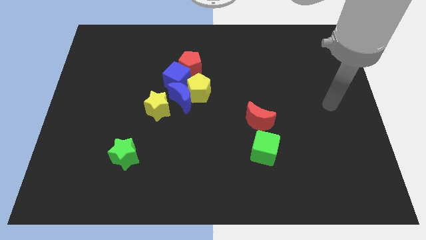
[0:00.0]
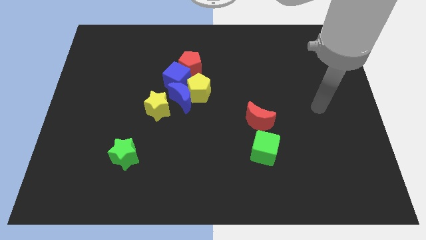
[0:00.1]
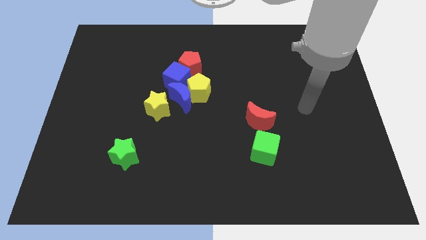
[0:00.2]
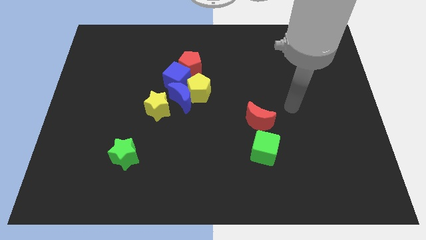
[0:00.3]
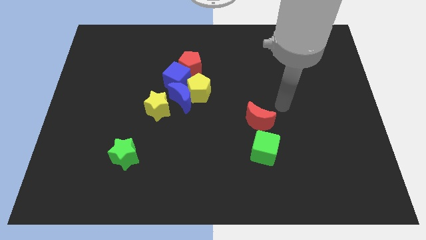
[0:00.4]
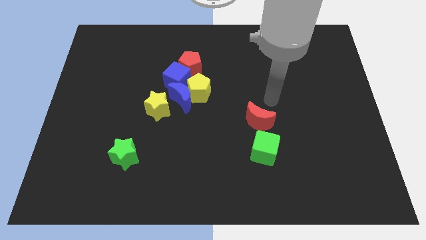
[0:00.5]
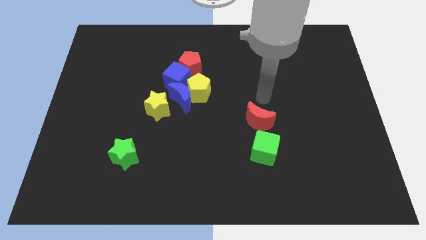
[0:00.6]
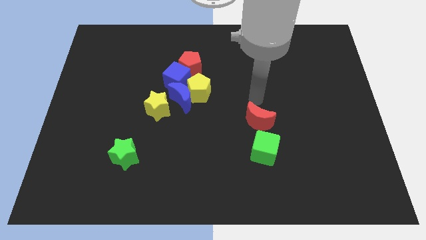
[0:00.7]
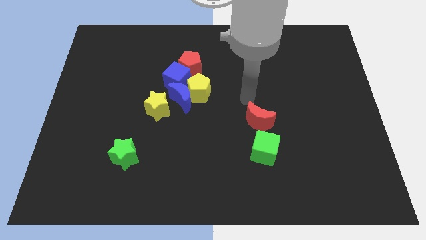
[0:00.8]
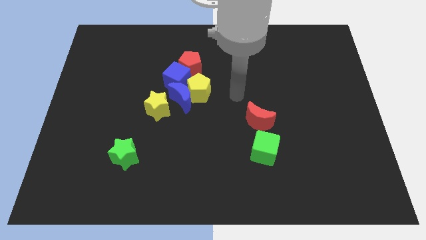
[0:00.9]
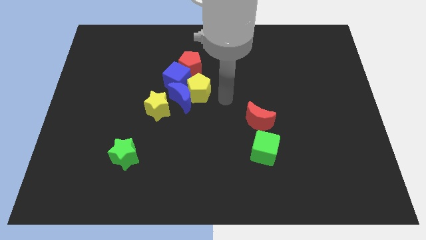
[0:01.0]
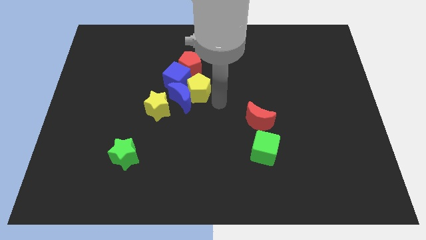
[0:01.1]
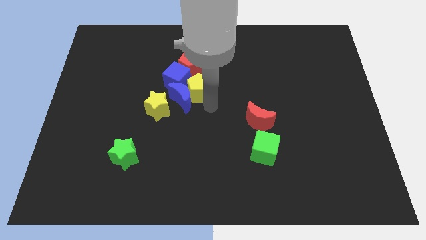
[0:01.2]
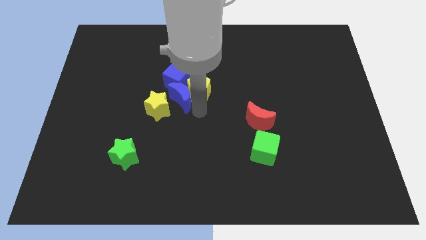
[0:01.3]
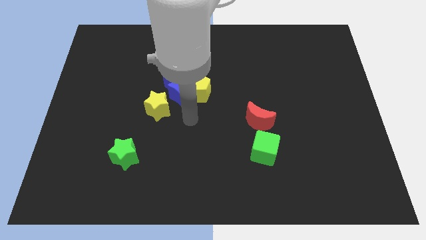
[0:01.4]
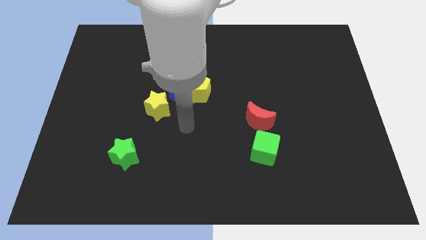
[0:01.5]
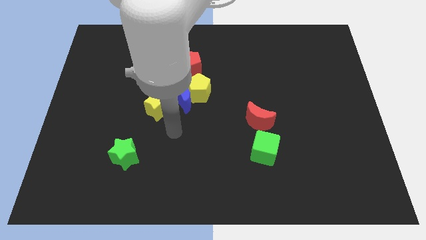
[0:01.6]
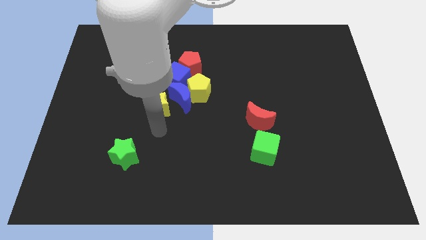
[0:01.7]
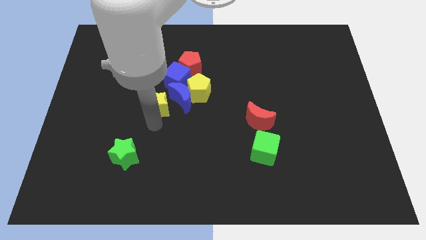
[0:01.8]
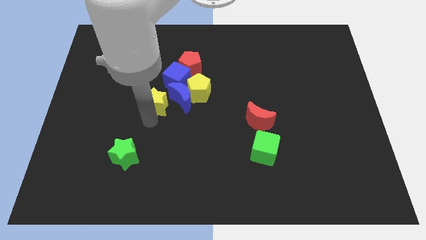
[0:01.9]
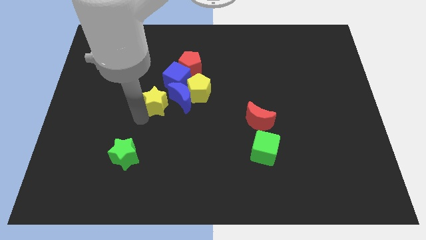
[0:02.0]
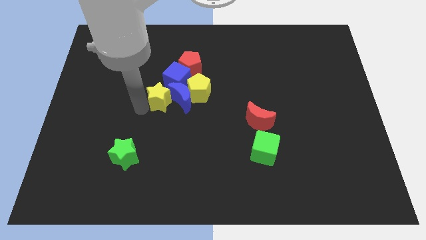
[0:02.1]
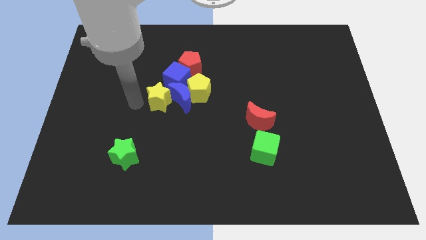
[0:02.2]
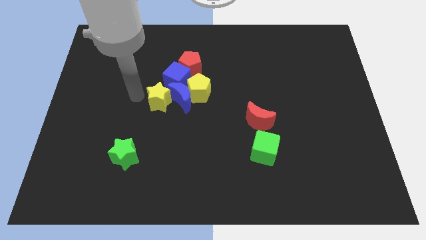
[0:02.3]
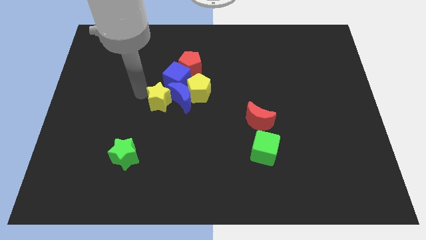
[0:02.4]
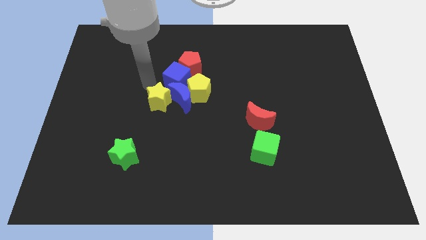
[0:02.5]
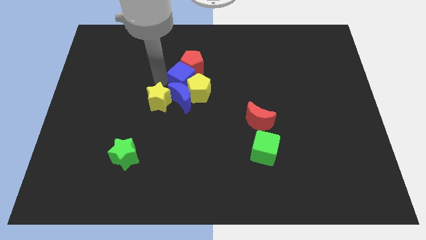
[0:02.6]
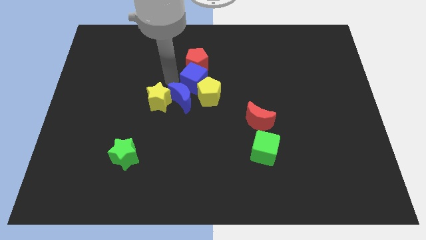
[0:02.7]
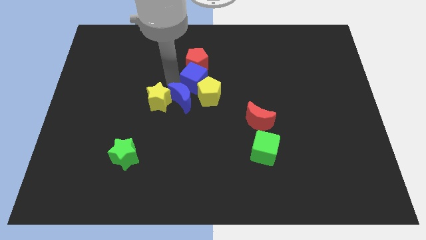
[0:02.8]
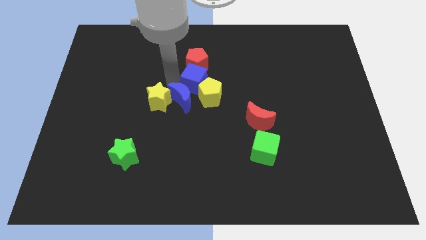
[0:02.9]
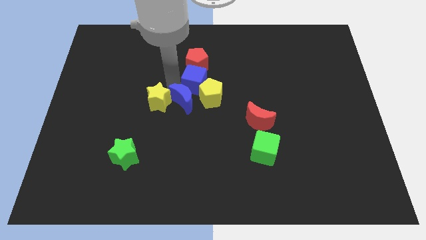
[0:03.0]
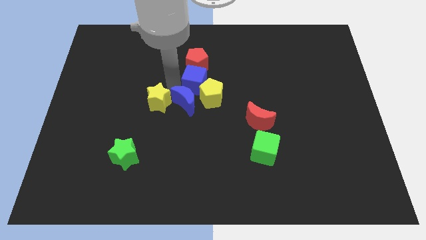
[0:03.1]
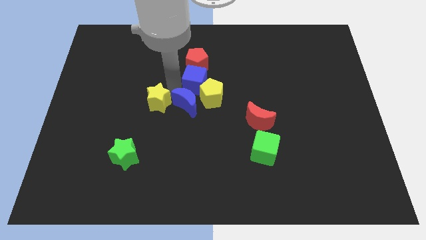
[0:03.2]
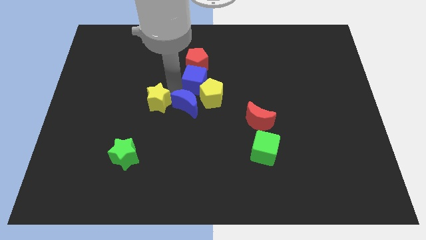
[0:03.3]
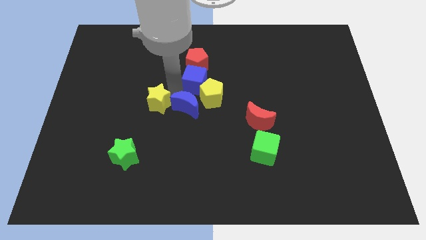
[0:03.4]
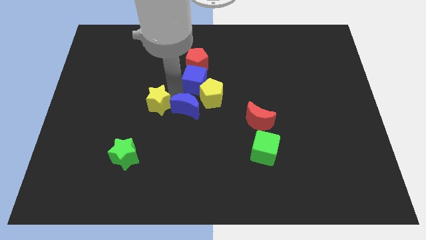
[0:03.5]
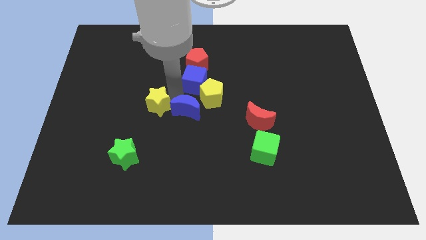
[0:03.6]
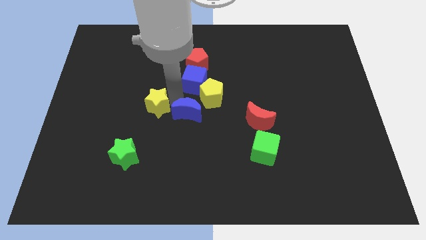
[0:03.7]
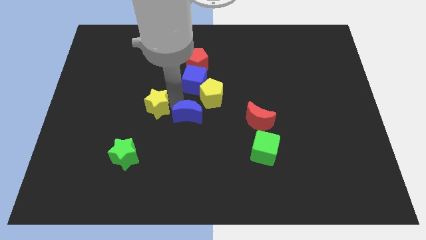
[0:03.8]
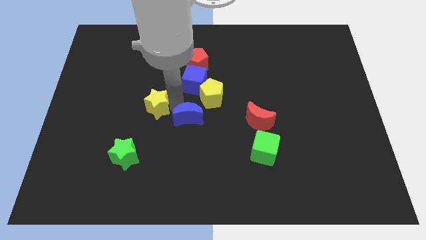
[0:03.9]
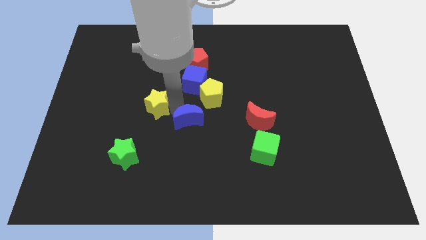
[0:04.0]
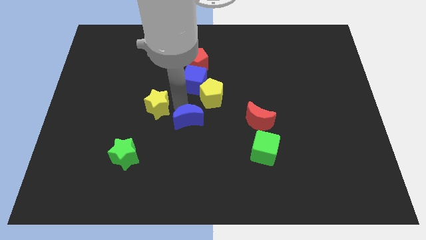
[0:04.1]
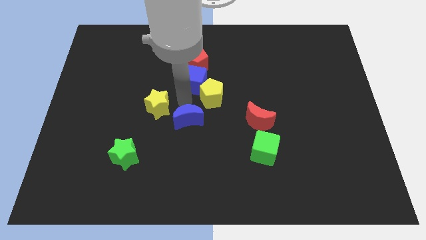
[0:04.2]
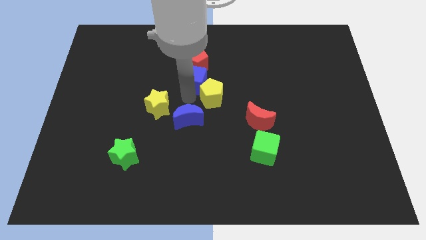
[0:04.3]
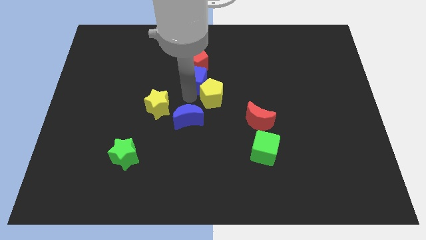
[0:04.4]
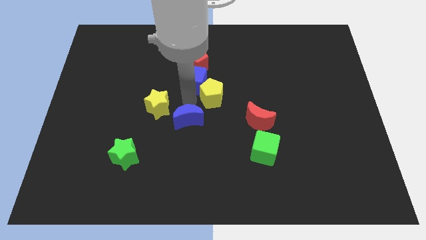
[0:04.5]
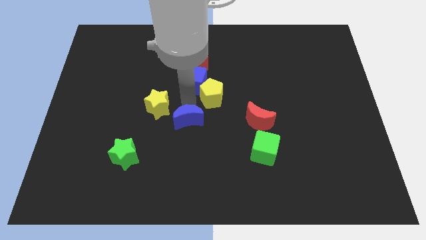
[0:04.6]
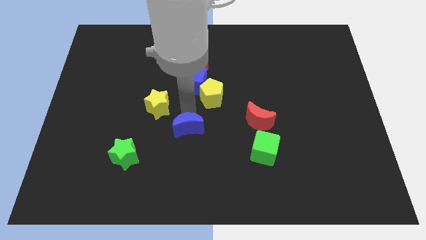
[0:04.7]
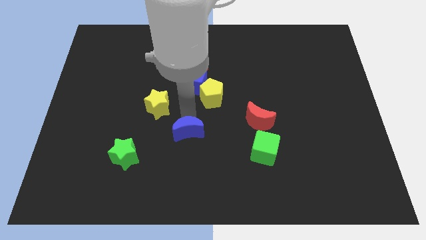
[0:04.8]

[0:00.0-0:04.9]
pull the blue moon apart from the yellow pentagon, yellow star, and blue cube

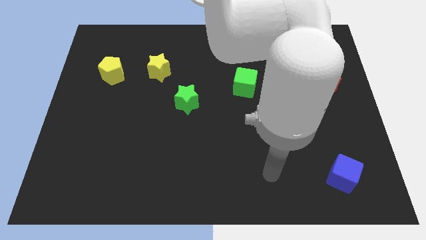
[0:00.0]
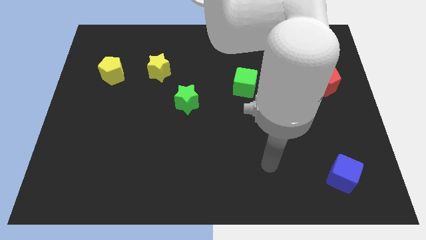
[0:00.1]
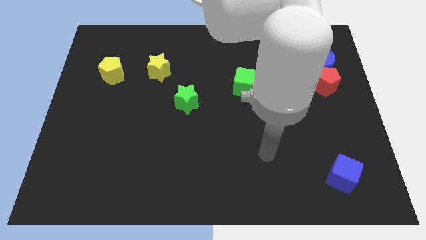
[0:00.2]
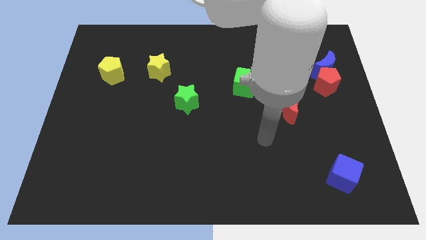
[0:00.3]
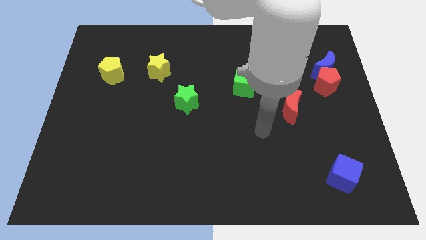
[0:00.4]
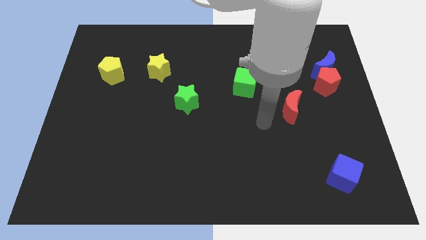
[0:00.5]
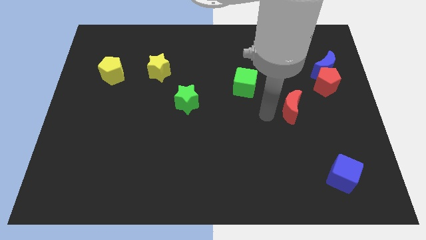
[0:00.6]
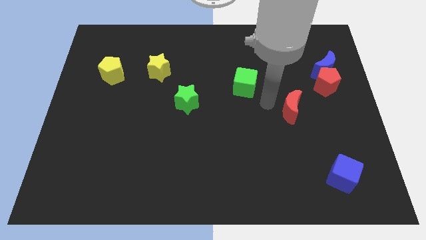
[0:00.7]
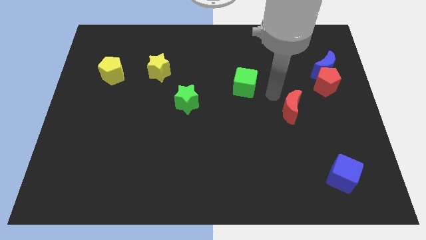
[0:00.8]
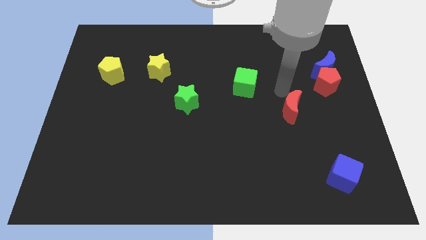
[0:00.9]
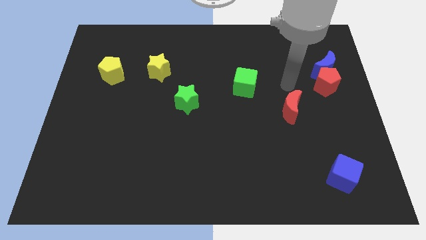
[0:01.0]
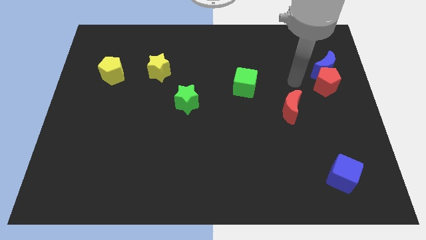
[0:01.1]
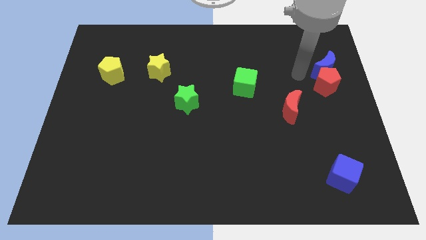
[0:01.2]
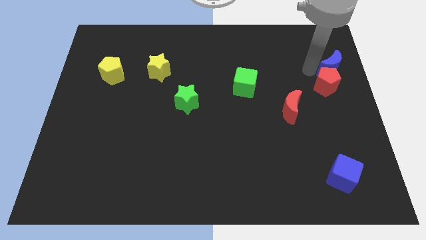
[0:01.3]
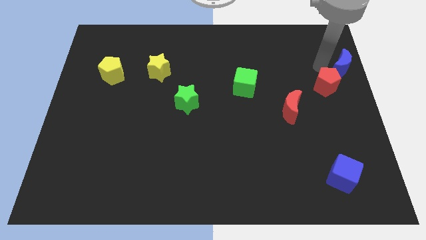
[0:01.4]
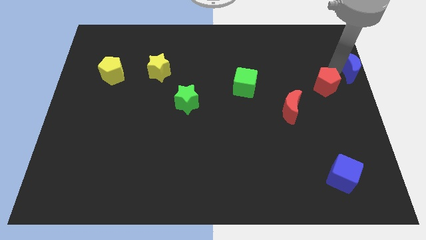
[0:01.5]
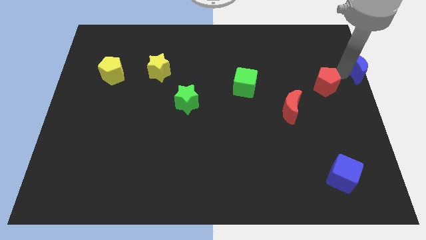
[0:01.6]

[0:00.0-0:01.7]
pull the red pentagon apart from the blue moon

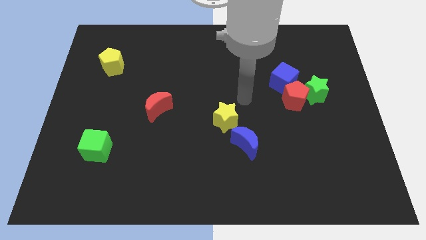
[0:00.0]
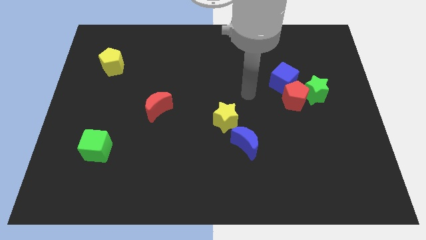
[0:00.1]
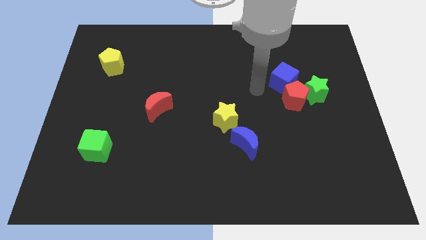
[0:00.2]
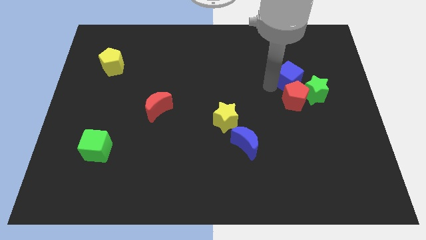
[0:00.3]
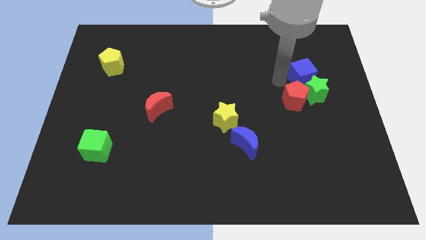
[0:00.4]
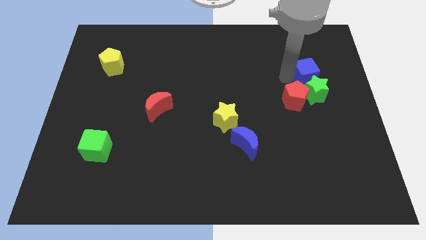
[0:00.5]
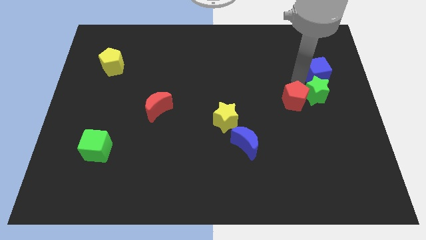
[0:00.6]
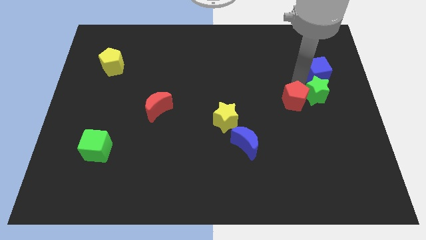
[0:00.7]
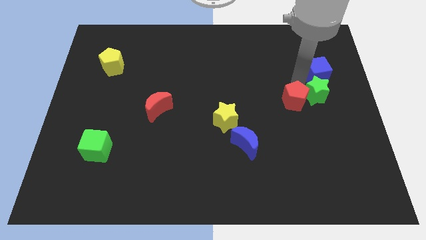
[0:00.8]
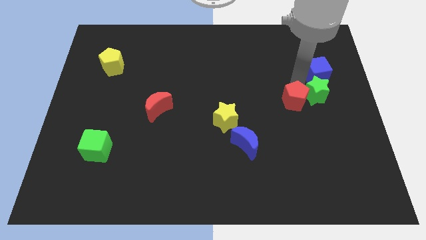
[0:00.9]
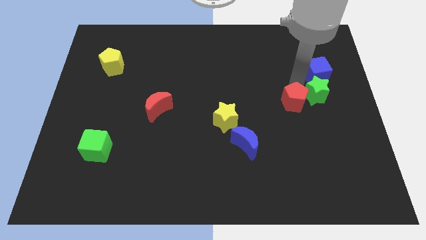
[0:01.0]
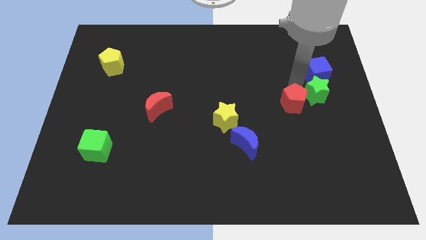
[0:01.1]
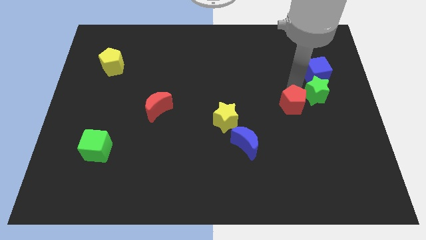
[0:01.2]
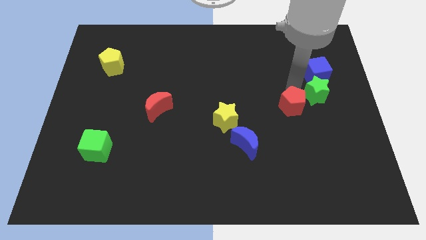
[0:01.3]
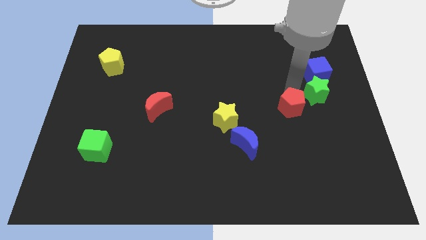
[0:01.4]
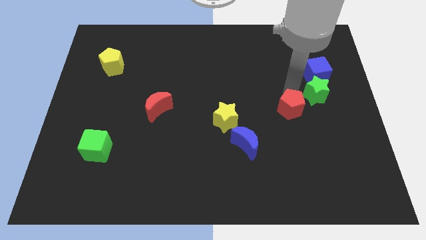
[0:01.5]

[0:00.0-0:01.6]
move the red pentagon away from the green star and blue cube

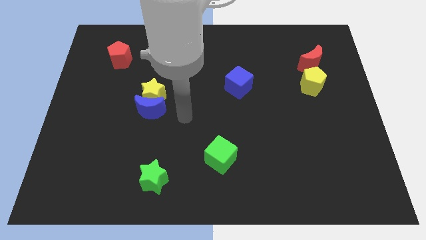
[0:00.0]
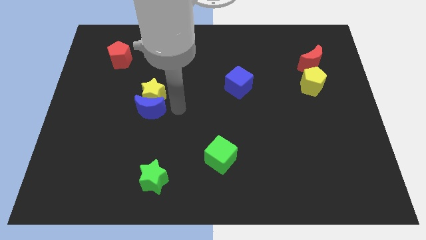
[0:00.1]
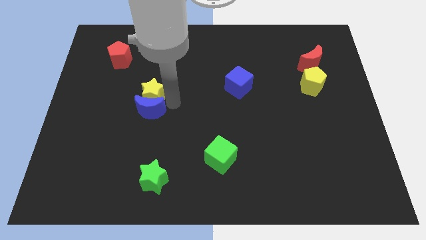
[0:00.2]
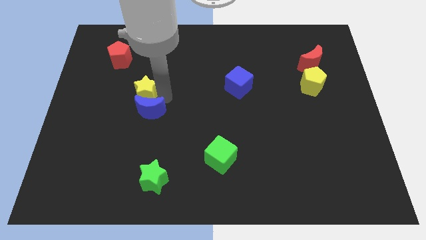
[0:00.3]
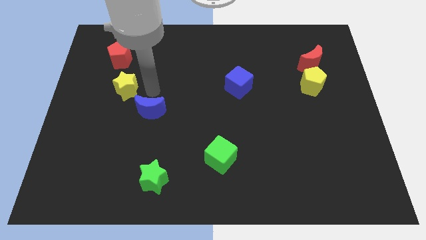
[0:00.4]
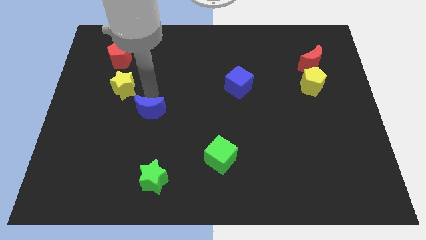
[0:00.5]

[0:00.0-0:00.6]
pull the blue moon apart from the yellow star

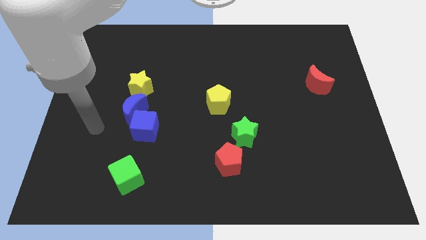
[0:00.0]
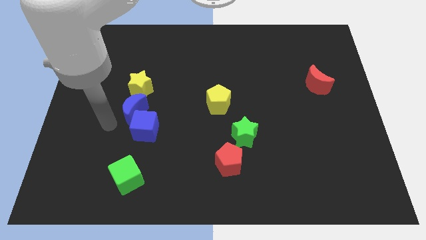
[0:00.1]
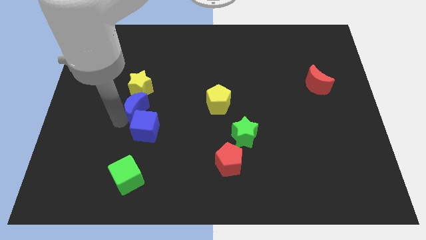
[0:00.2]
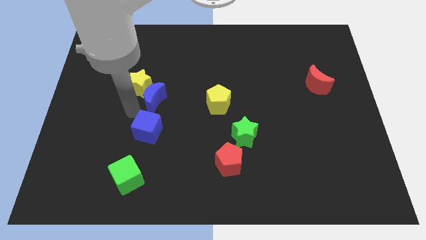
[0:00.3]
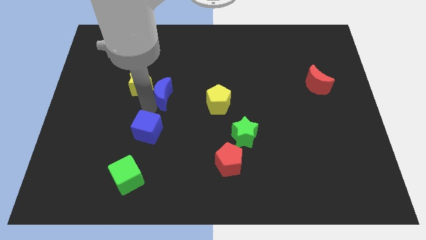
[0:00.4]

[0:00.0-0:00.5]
pull the blue cube apart from the blue moon
